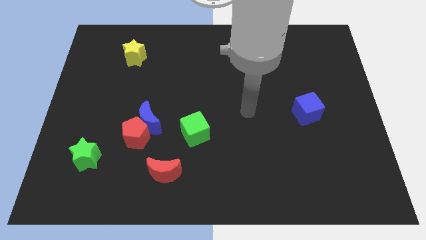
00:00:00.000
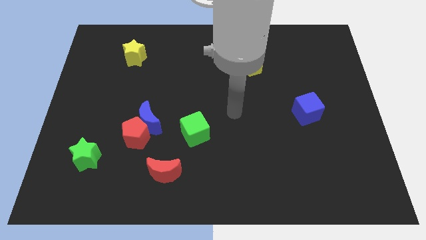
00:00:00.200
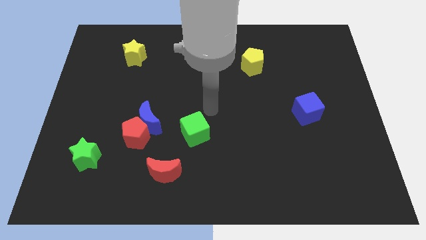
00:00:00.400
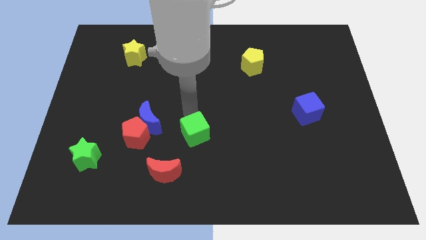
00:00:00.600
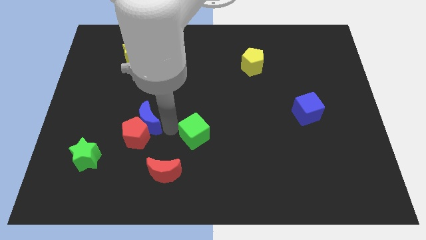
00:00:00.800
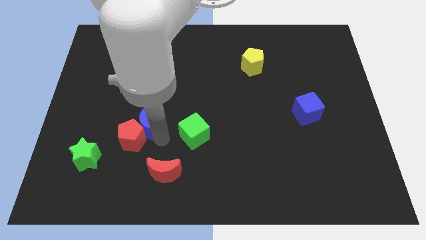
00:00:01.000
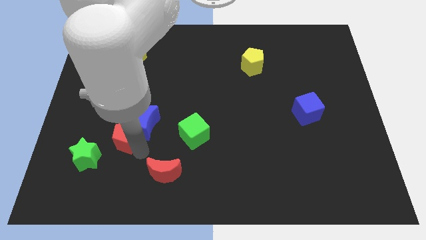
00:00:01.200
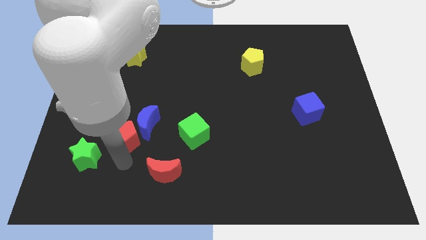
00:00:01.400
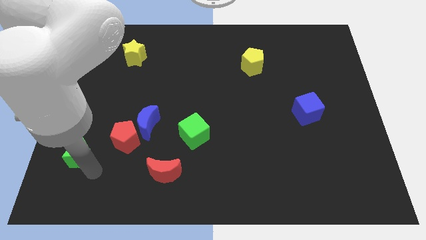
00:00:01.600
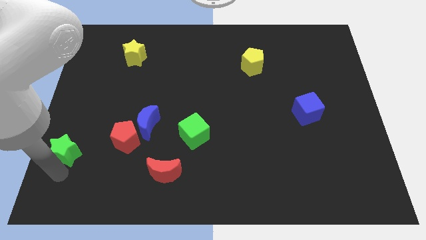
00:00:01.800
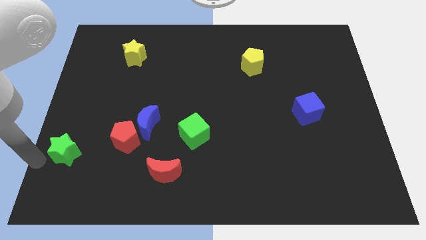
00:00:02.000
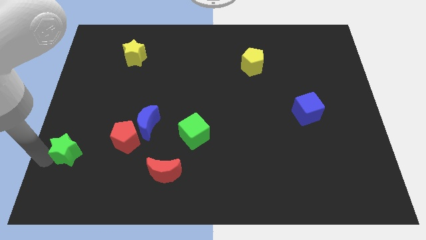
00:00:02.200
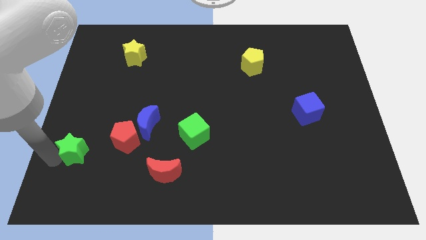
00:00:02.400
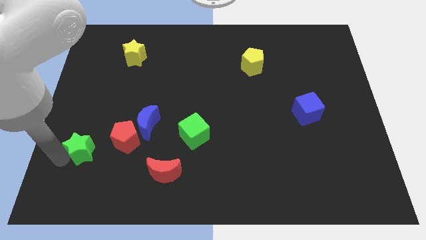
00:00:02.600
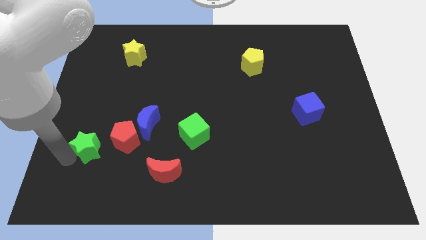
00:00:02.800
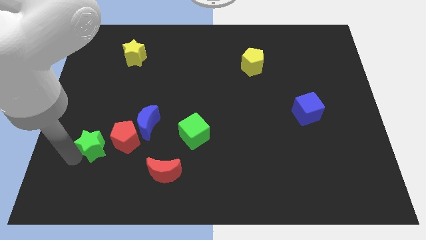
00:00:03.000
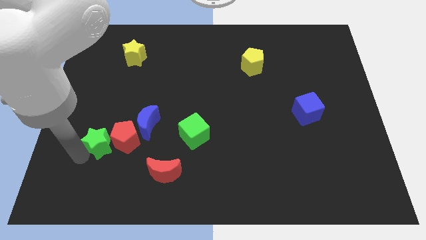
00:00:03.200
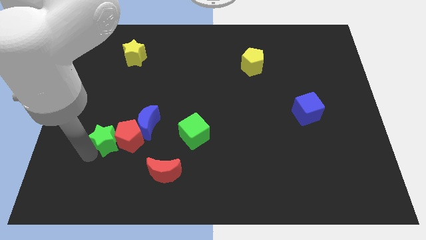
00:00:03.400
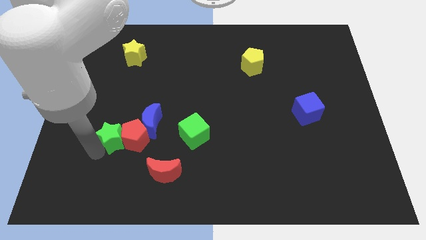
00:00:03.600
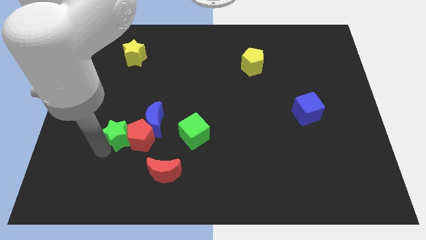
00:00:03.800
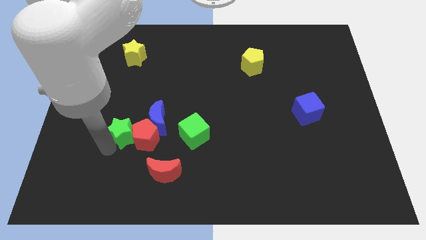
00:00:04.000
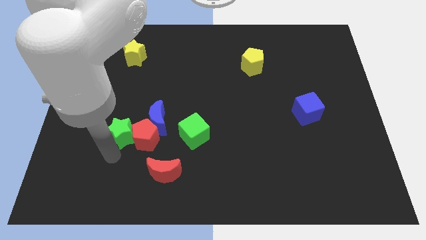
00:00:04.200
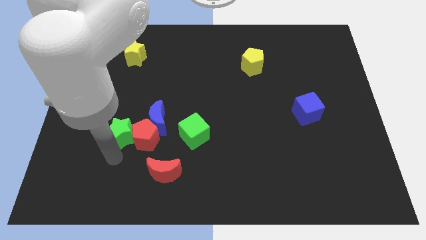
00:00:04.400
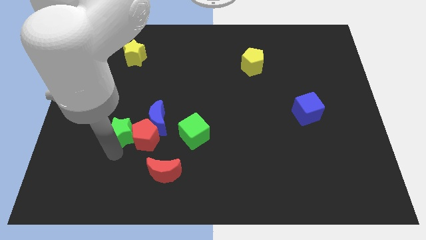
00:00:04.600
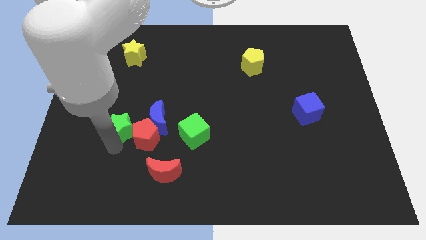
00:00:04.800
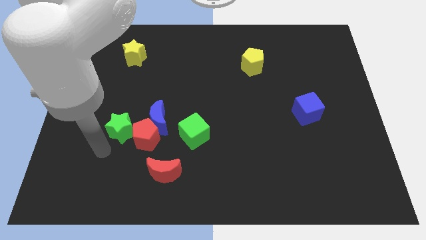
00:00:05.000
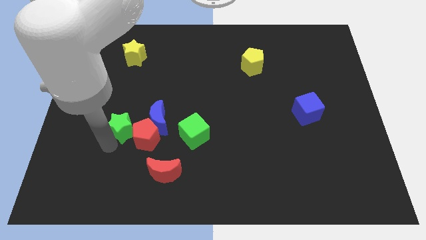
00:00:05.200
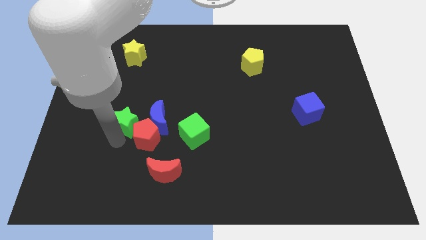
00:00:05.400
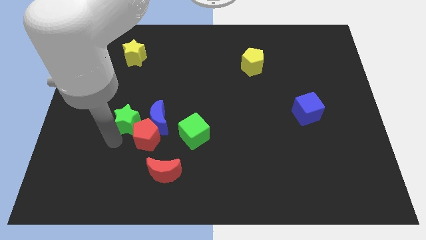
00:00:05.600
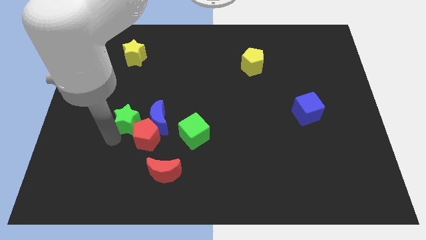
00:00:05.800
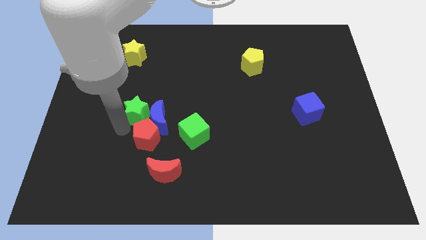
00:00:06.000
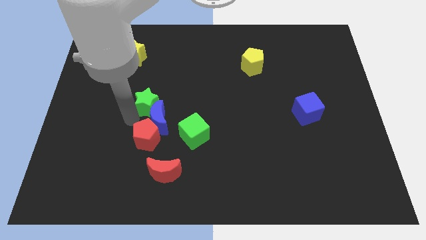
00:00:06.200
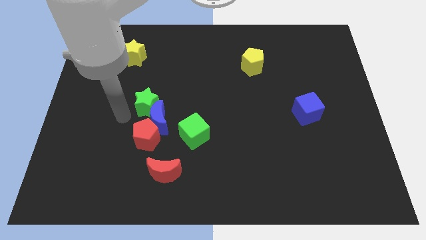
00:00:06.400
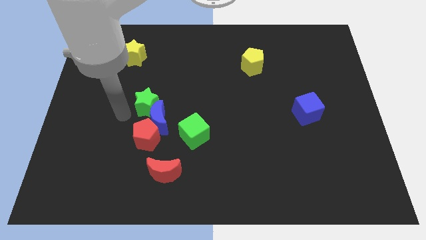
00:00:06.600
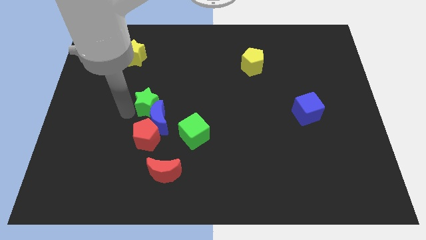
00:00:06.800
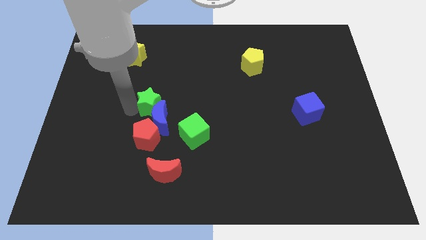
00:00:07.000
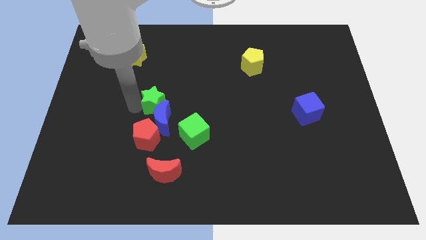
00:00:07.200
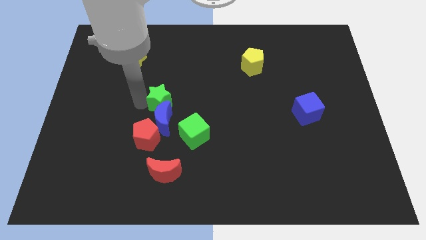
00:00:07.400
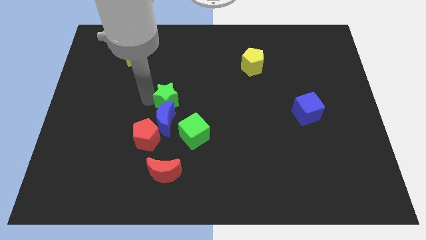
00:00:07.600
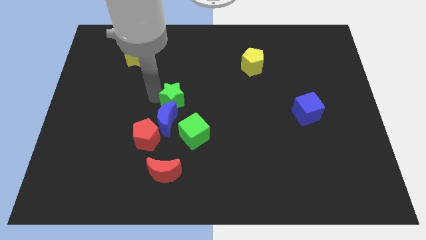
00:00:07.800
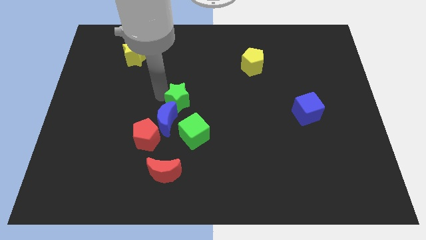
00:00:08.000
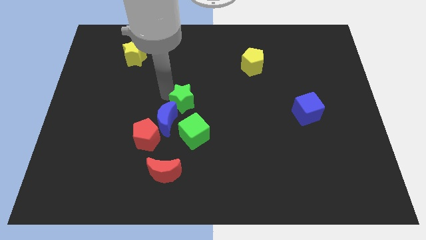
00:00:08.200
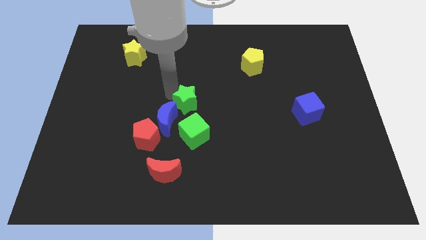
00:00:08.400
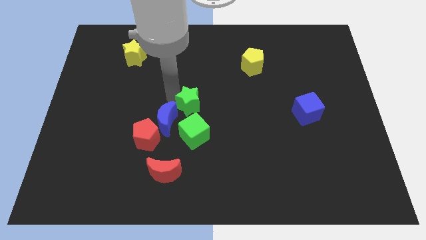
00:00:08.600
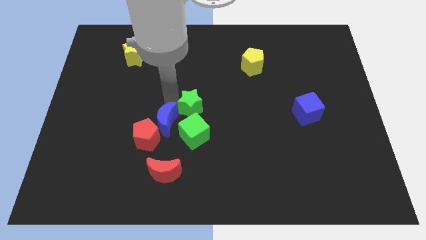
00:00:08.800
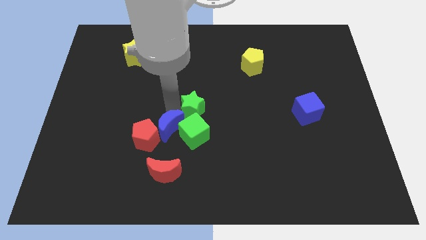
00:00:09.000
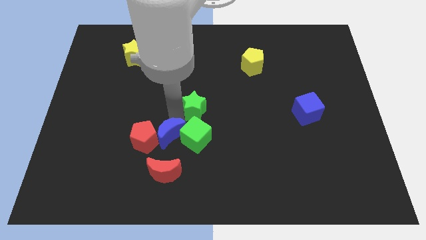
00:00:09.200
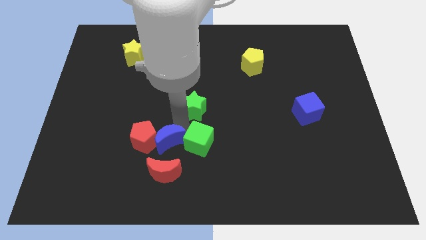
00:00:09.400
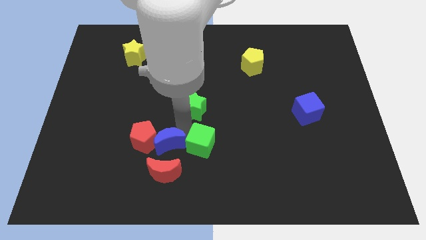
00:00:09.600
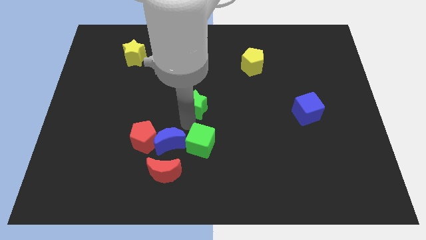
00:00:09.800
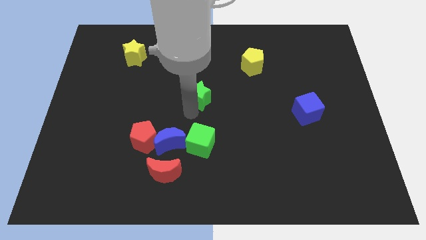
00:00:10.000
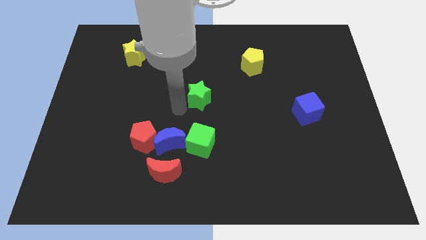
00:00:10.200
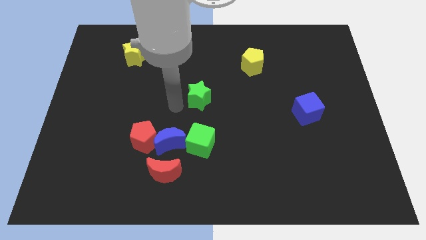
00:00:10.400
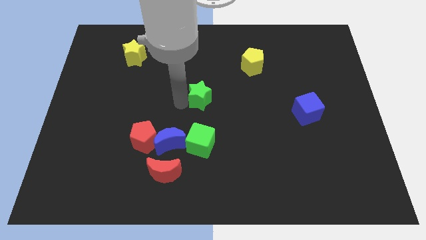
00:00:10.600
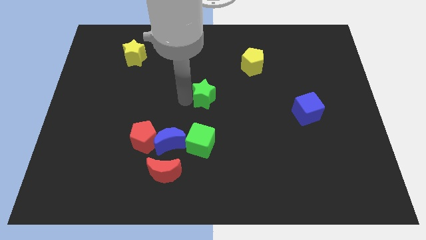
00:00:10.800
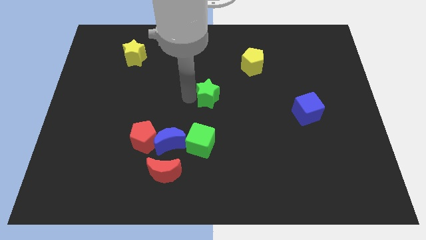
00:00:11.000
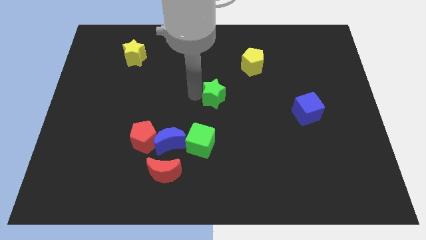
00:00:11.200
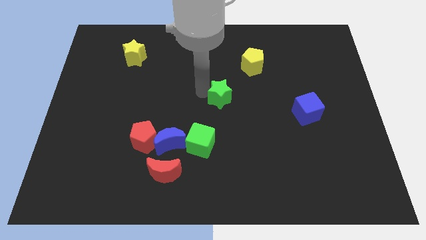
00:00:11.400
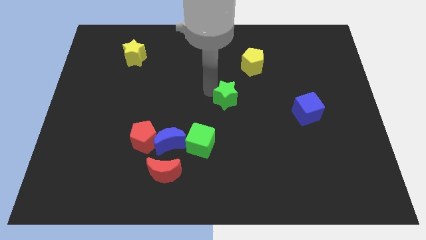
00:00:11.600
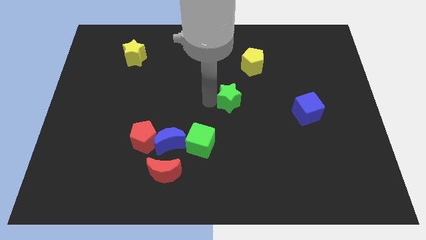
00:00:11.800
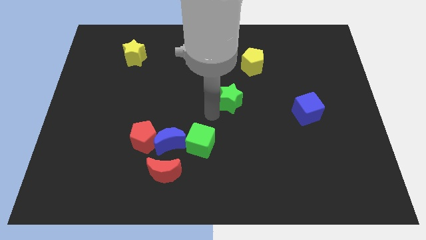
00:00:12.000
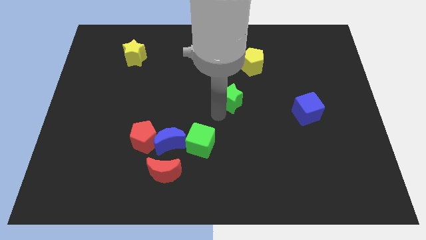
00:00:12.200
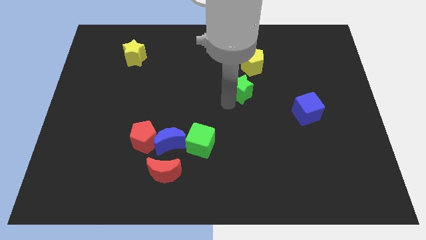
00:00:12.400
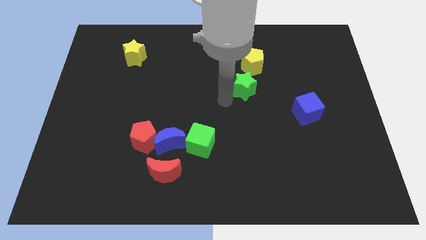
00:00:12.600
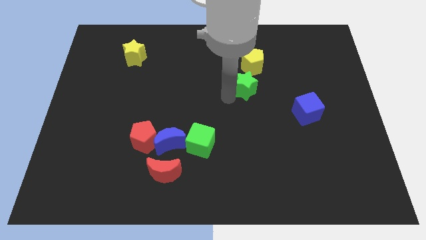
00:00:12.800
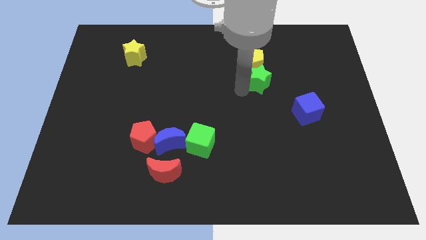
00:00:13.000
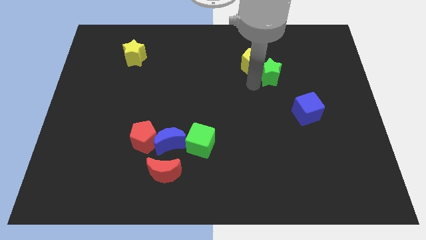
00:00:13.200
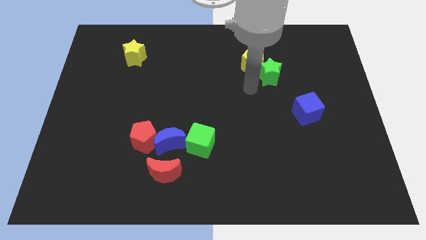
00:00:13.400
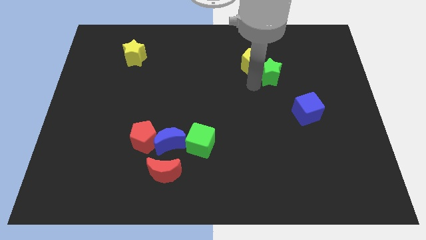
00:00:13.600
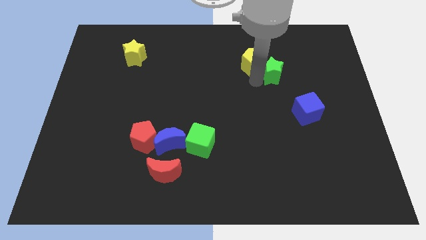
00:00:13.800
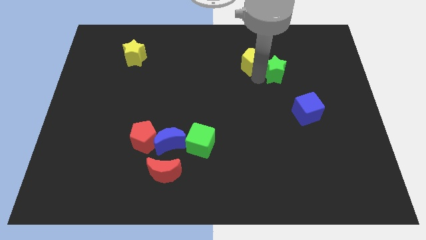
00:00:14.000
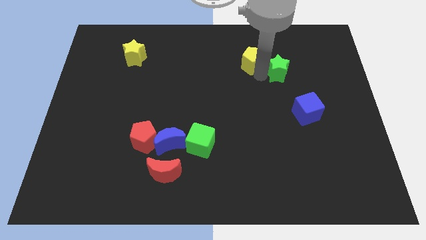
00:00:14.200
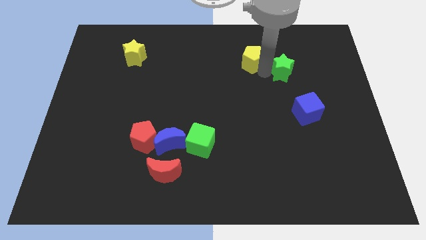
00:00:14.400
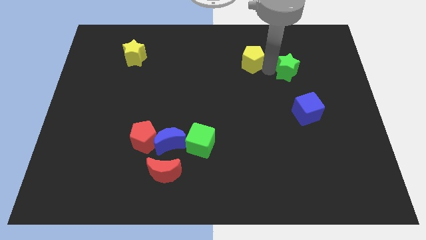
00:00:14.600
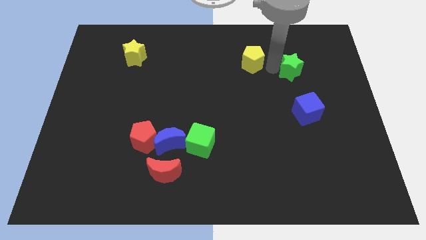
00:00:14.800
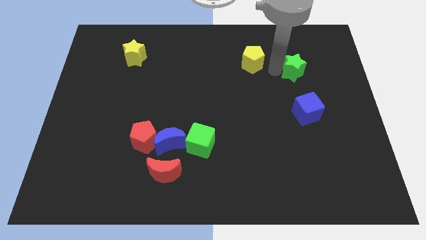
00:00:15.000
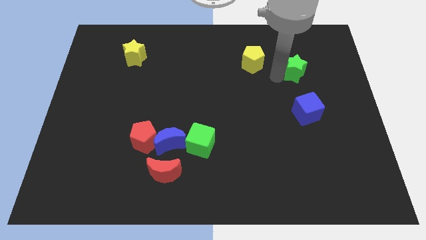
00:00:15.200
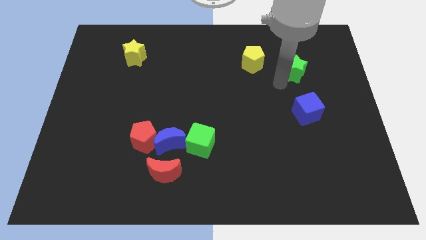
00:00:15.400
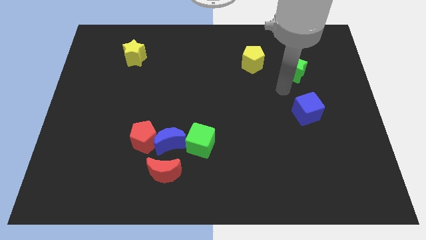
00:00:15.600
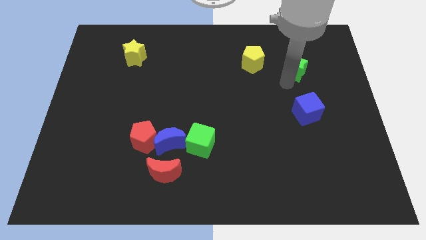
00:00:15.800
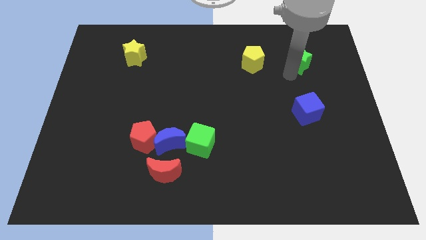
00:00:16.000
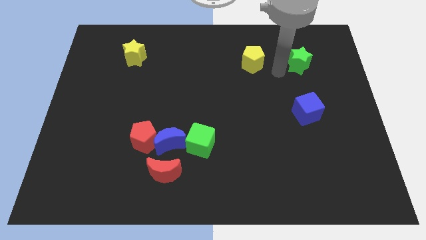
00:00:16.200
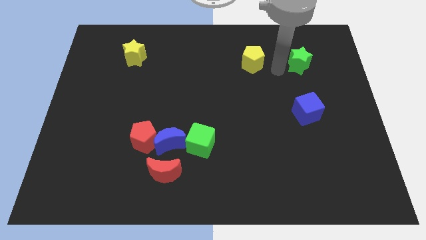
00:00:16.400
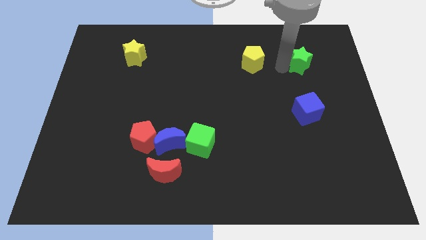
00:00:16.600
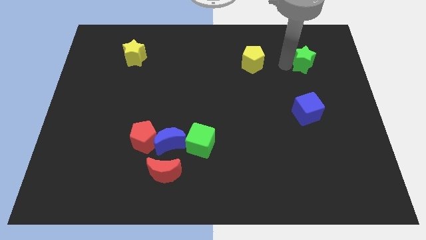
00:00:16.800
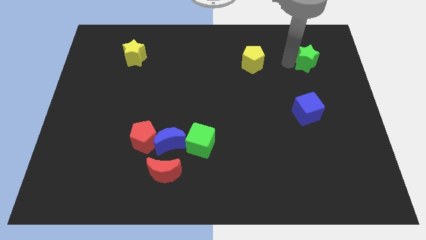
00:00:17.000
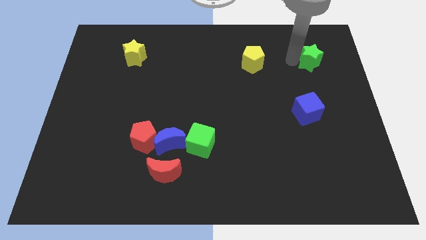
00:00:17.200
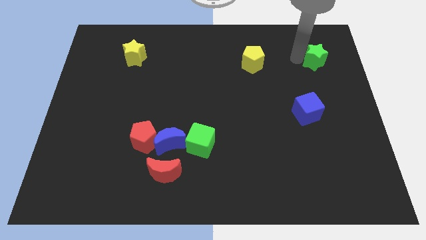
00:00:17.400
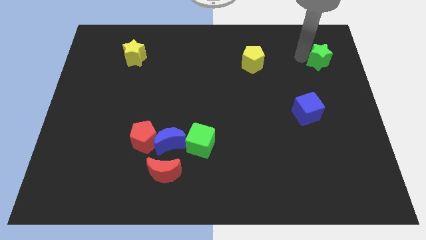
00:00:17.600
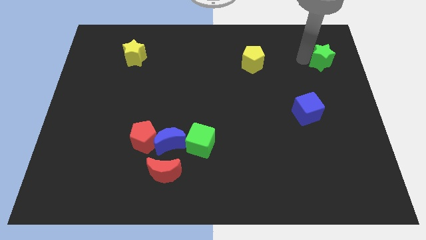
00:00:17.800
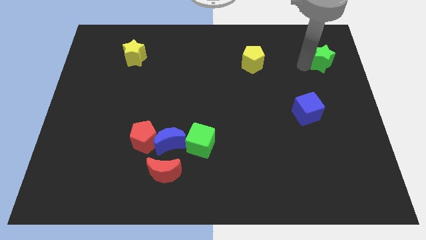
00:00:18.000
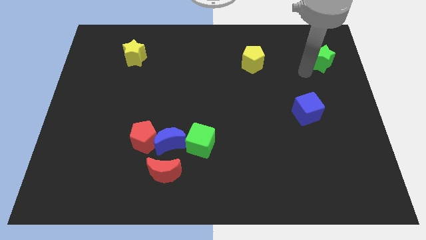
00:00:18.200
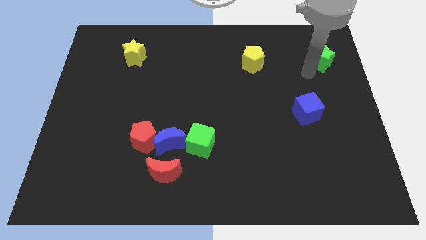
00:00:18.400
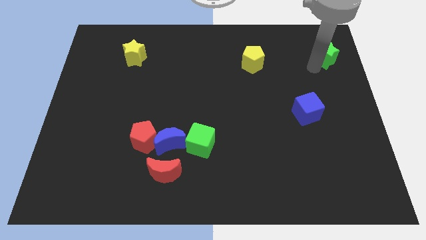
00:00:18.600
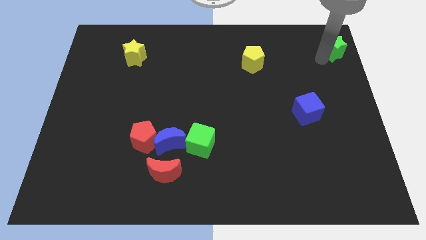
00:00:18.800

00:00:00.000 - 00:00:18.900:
move the green star to the top right corner
